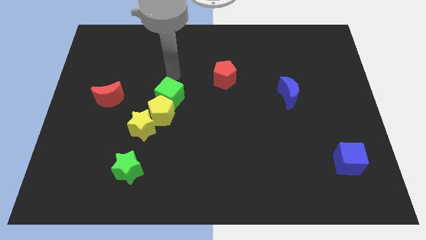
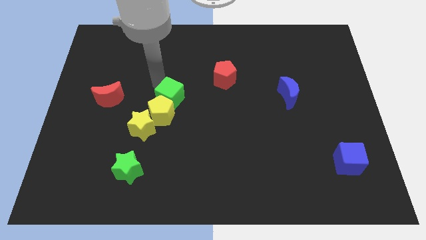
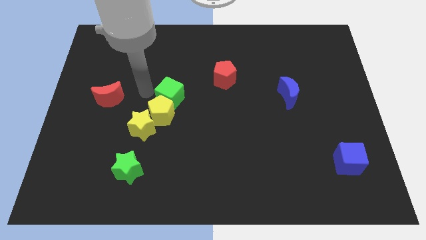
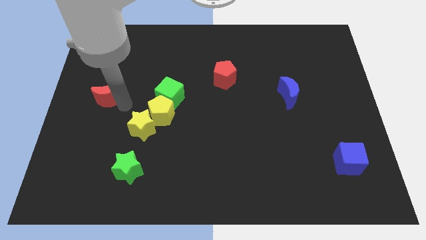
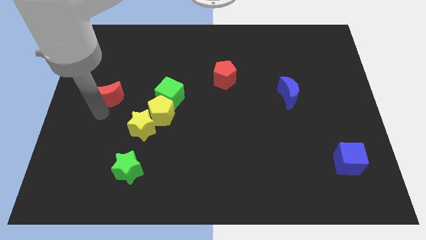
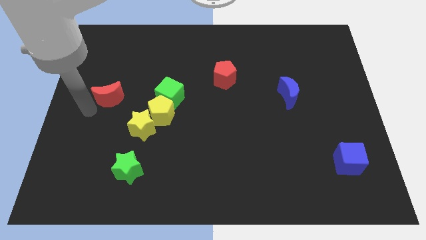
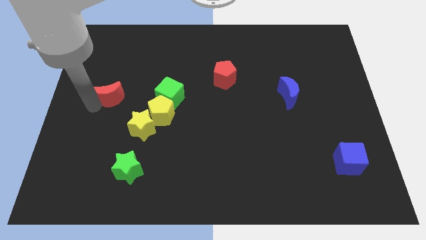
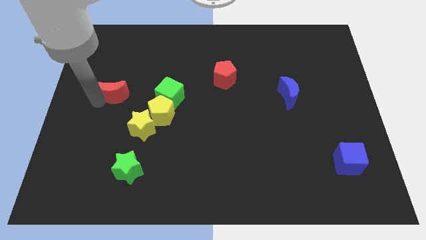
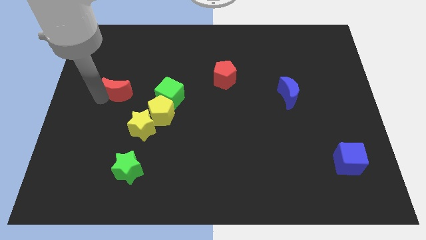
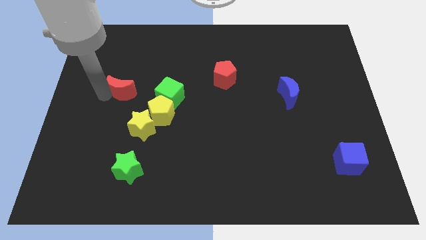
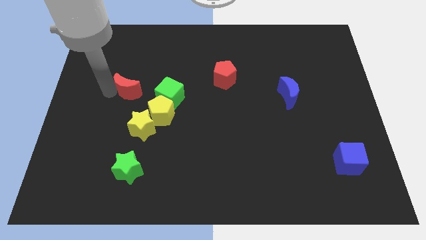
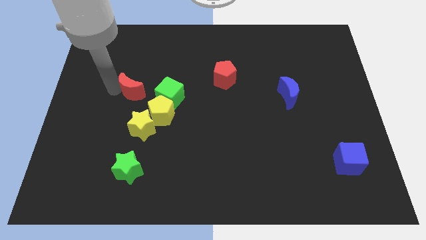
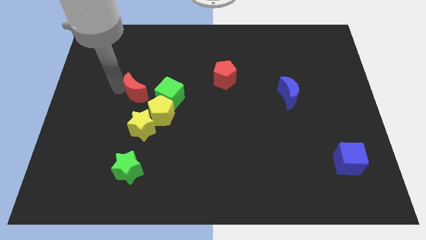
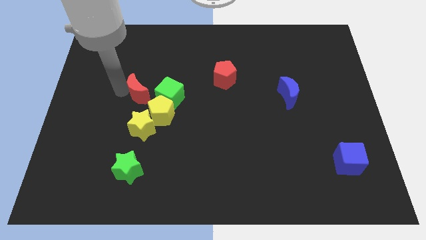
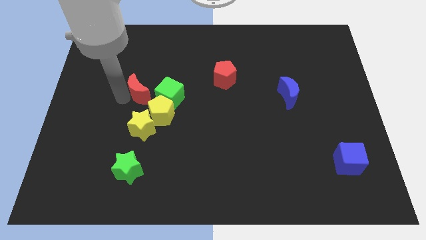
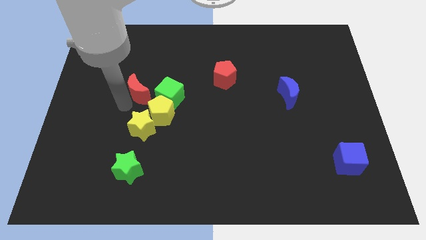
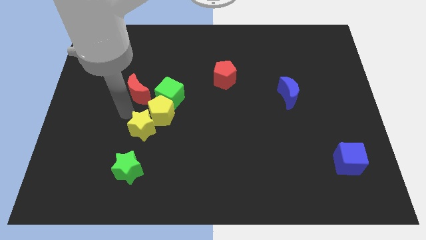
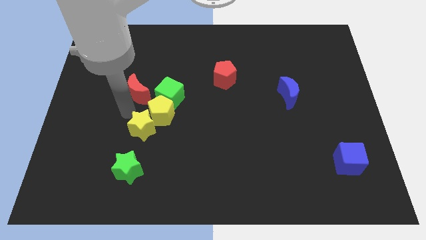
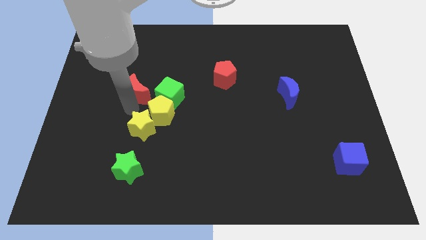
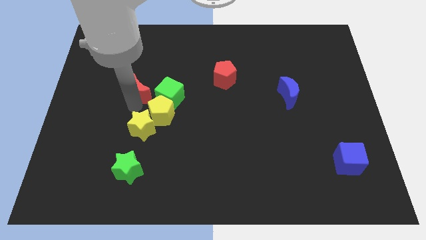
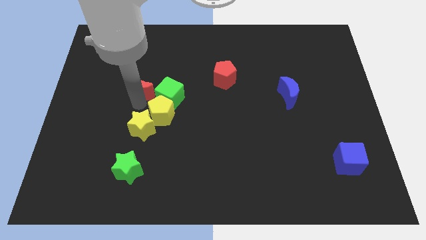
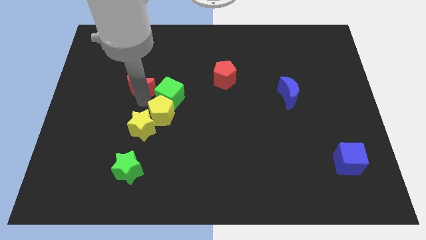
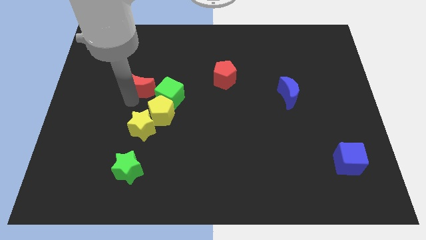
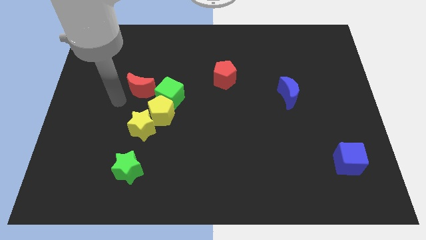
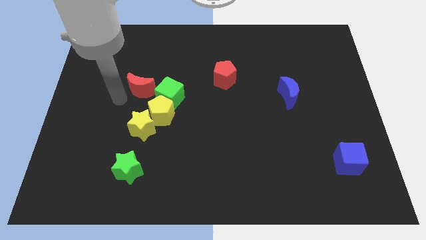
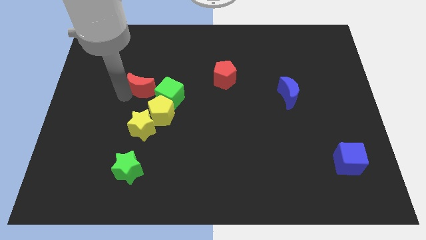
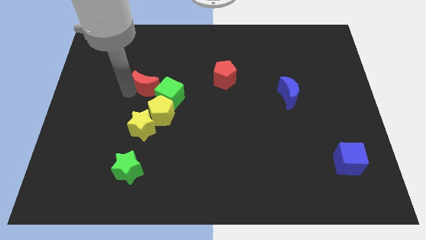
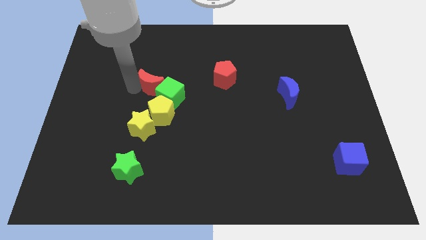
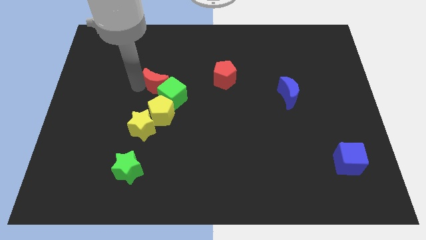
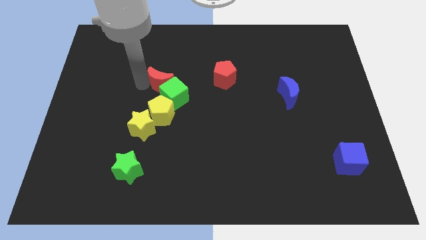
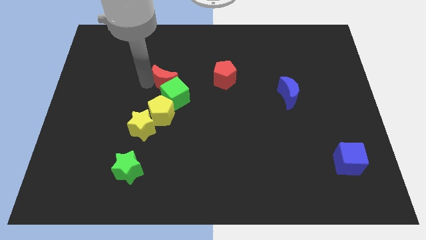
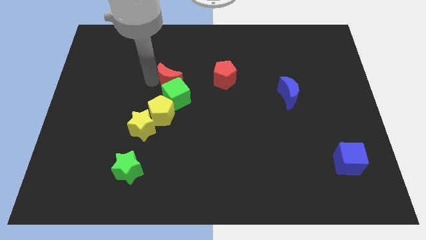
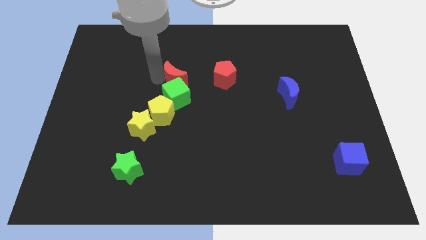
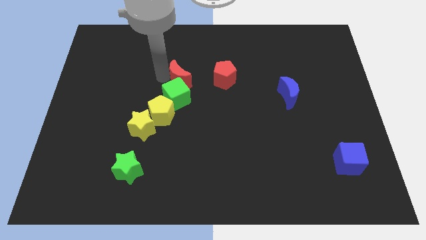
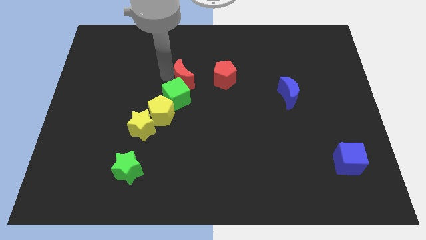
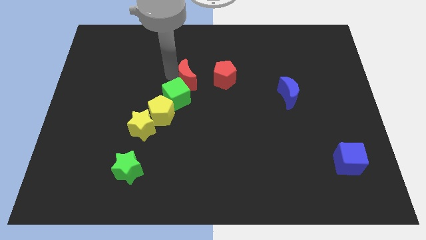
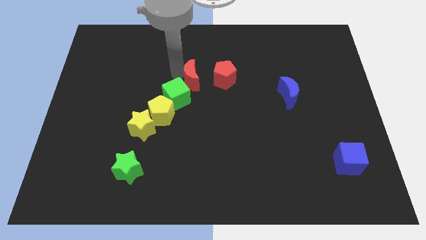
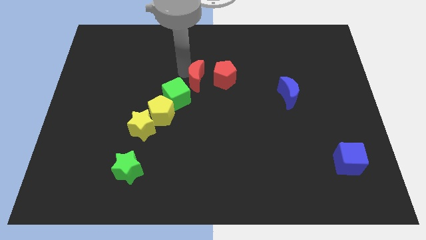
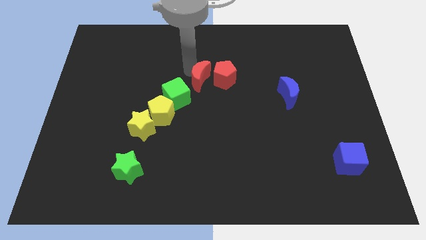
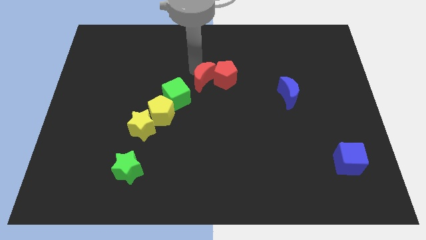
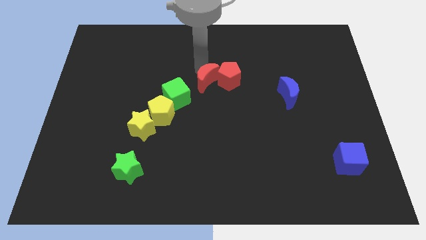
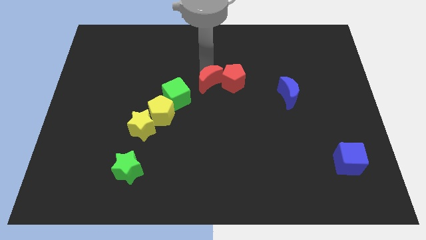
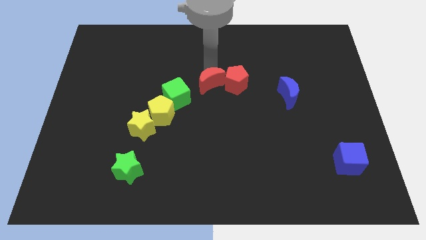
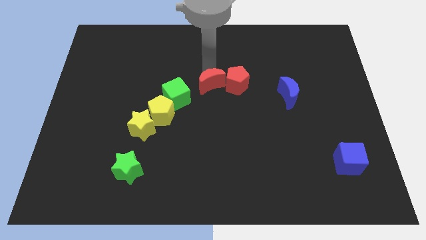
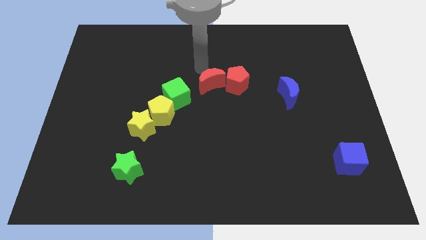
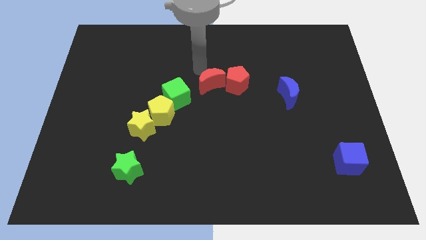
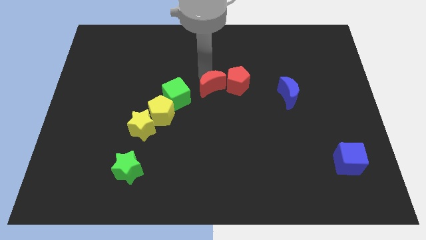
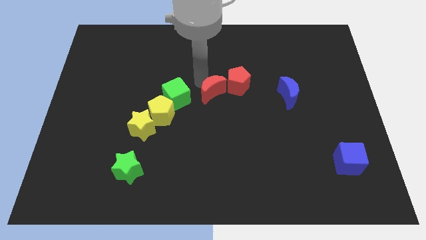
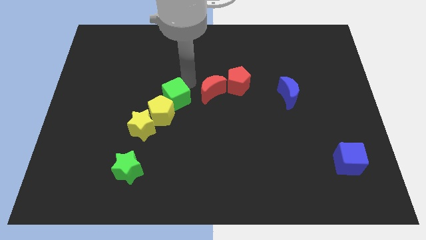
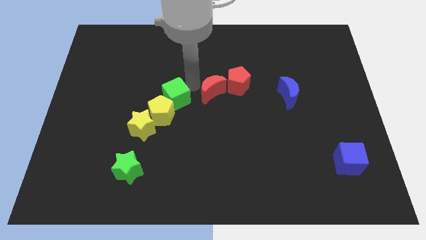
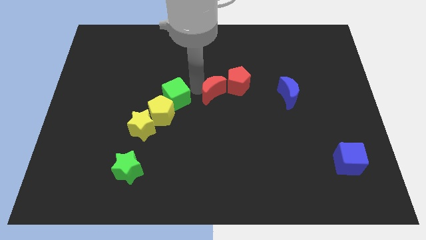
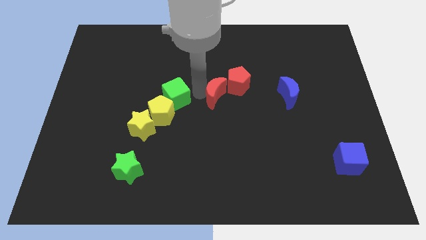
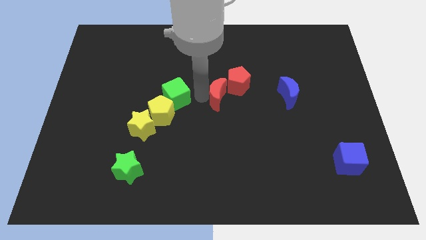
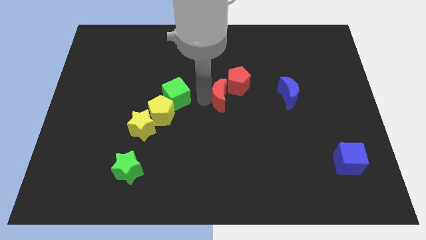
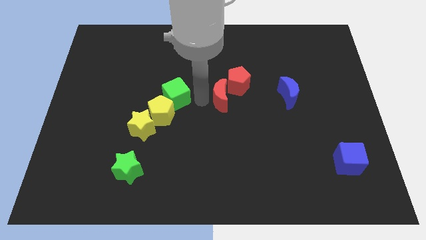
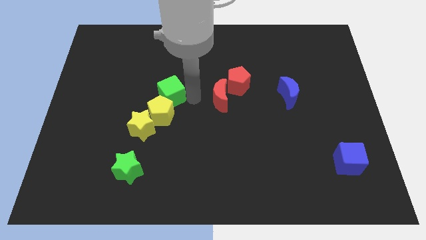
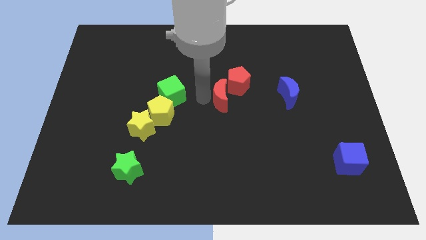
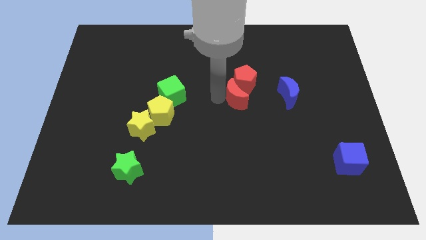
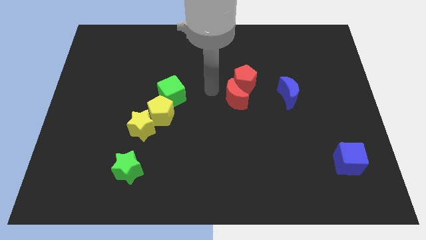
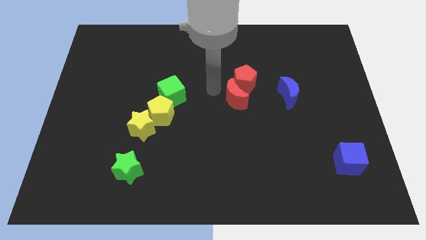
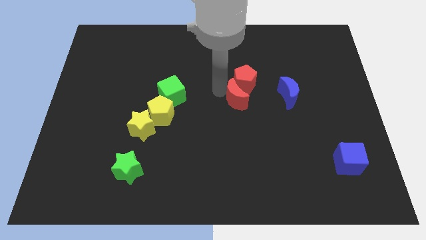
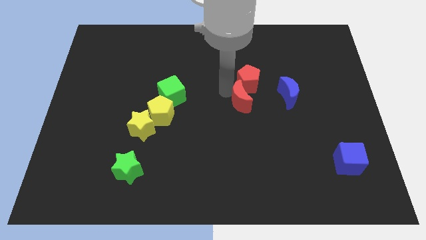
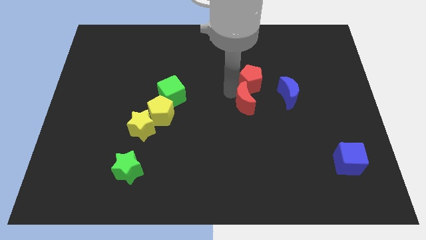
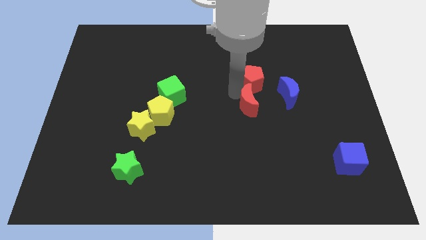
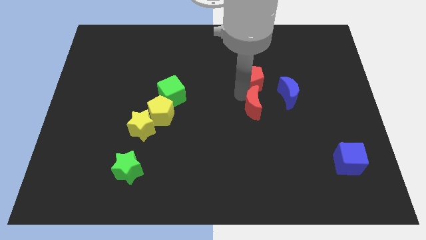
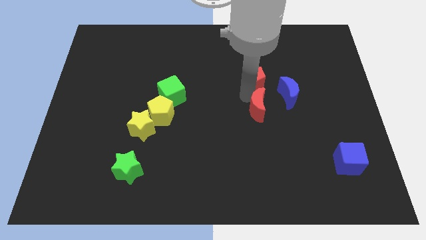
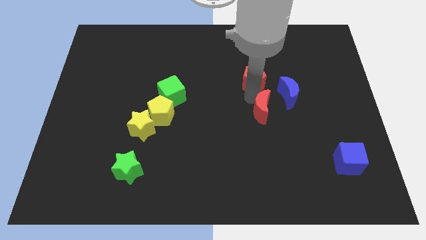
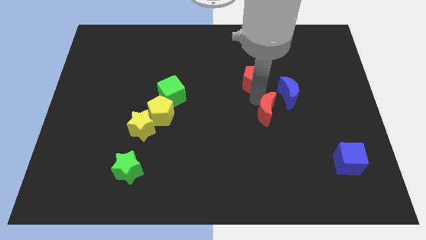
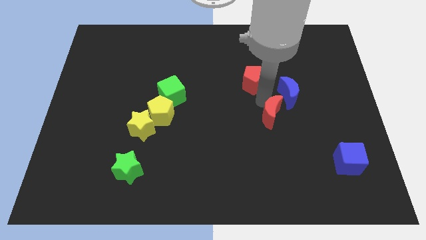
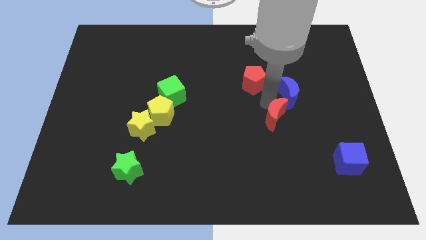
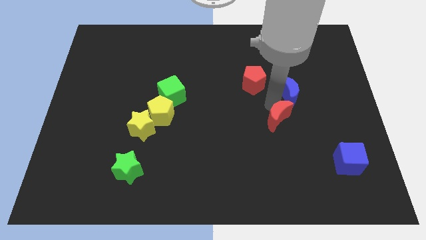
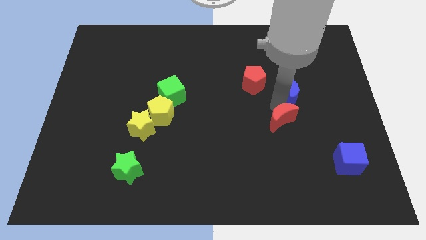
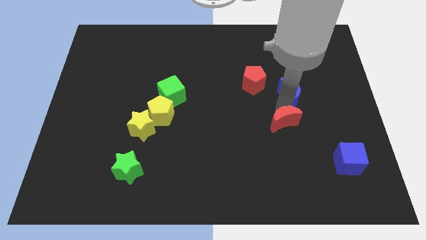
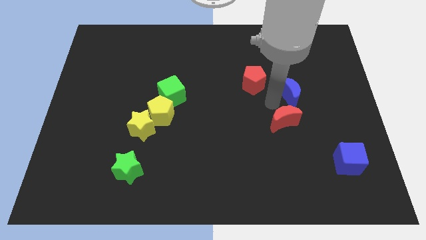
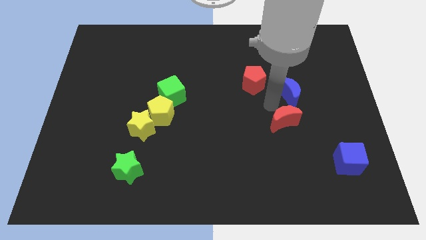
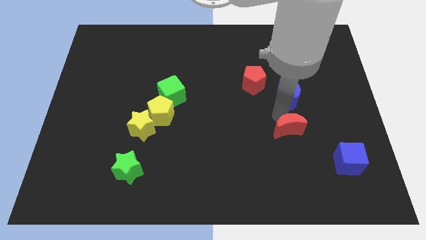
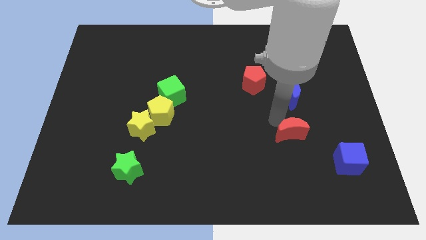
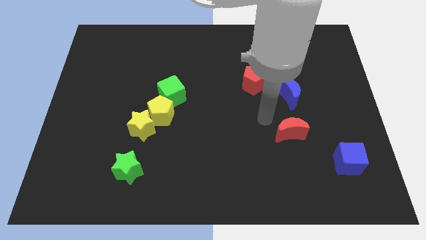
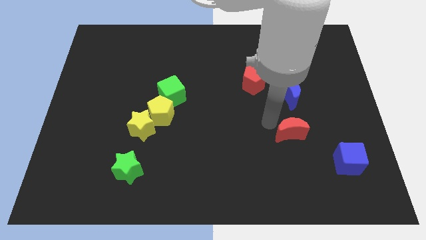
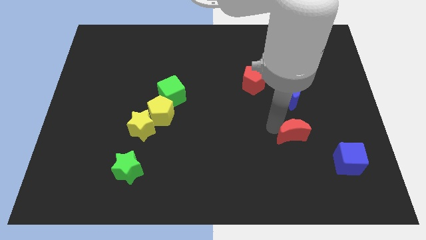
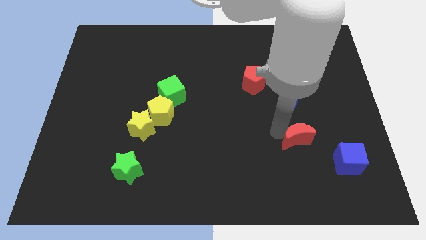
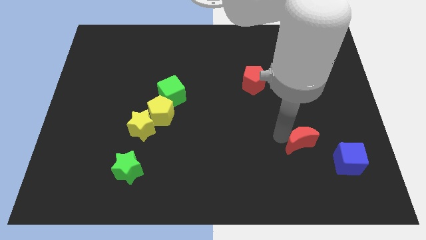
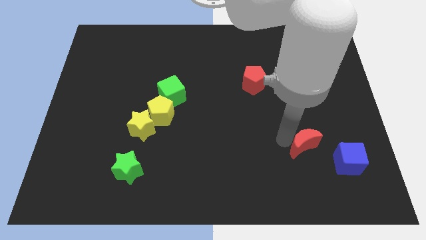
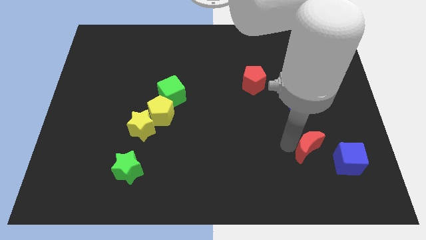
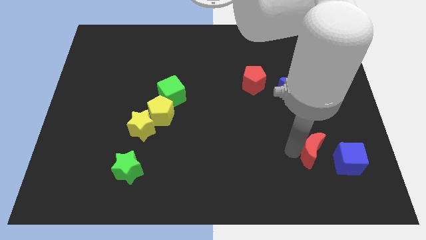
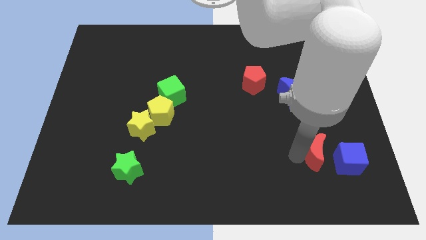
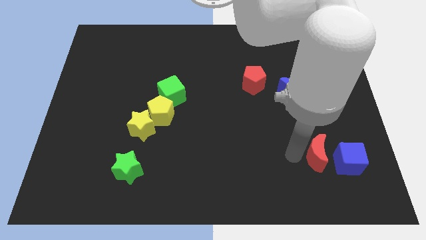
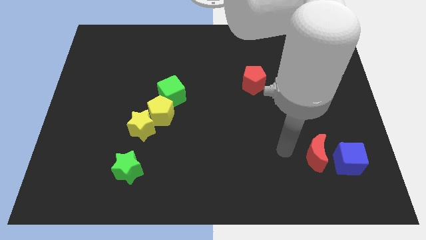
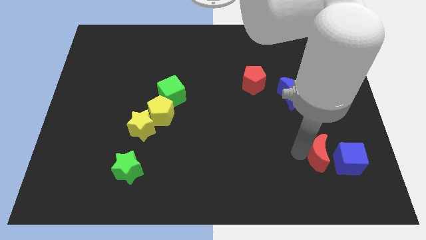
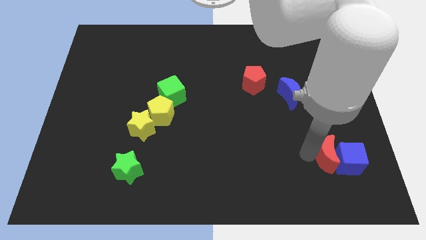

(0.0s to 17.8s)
move the red moon to the blue cube
